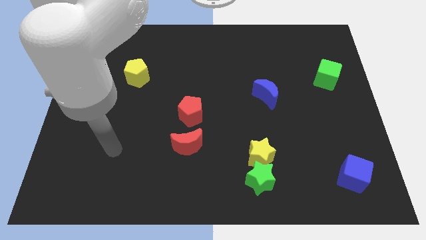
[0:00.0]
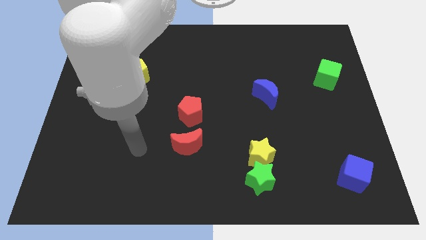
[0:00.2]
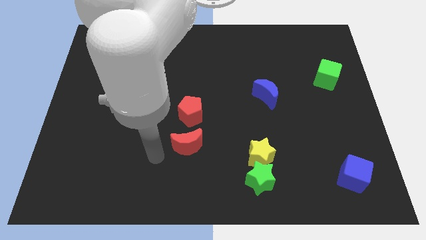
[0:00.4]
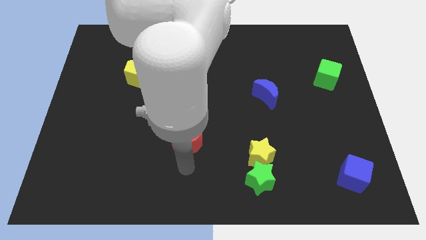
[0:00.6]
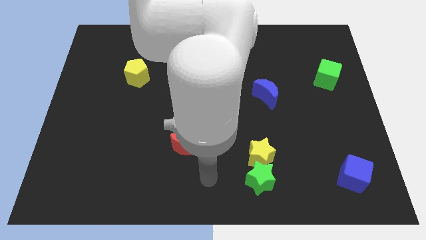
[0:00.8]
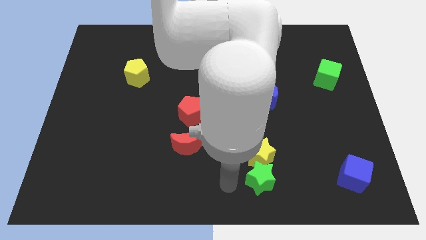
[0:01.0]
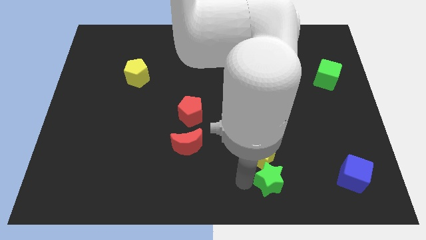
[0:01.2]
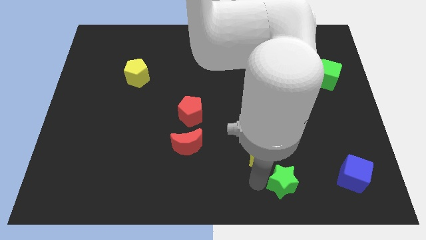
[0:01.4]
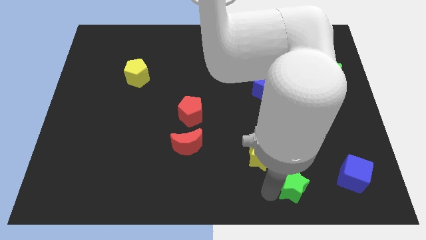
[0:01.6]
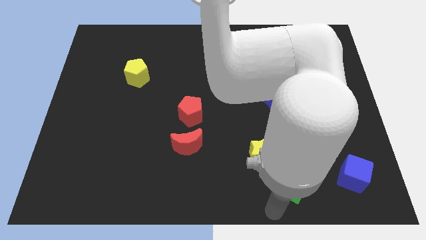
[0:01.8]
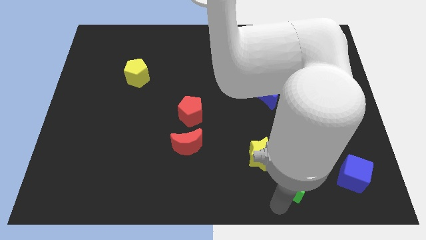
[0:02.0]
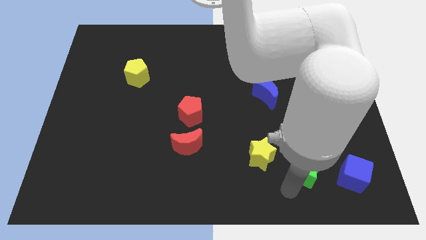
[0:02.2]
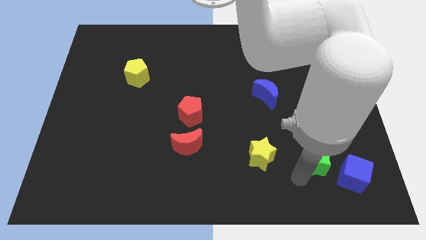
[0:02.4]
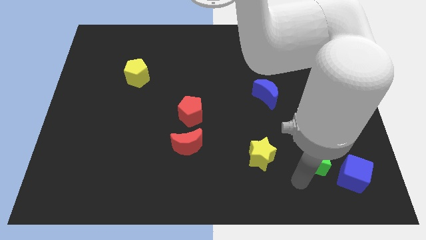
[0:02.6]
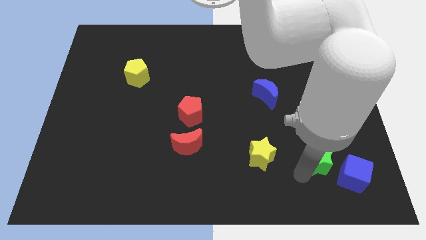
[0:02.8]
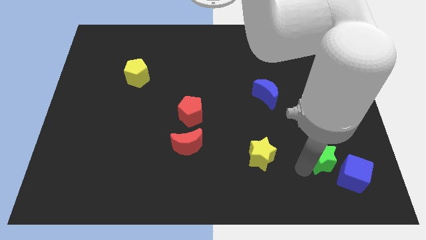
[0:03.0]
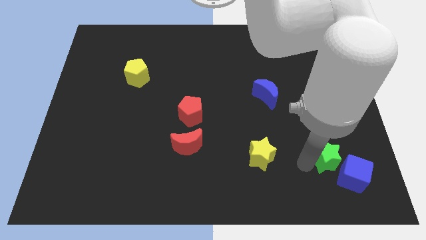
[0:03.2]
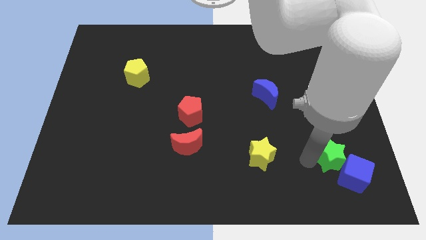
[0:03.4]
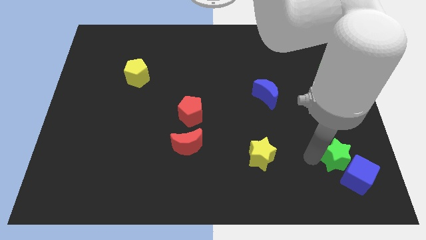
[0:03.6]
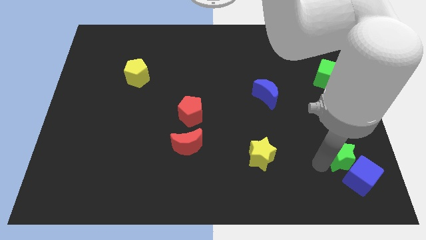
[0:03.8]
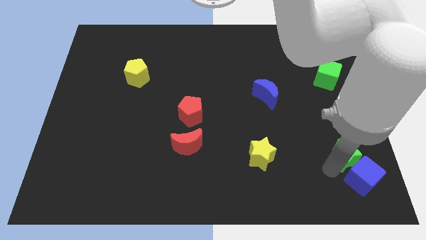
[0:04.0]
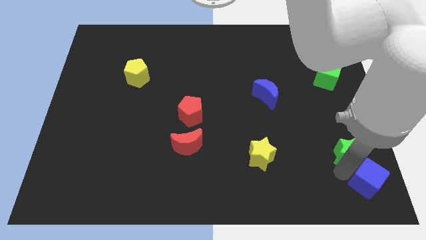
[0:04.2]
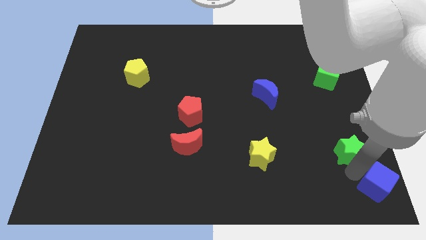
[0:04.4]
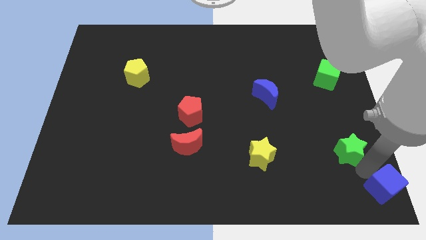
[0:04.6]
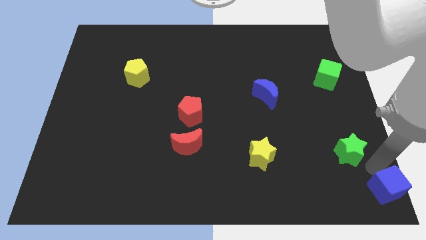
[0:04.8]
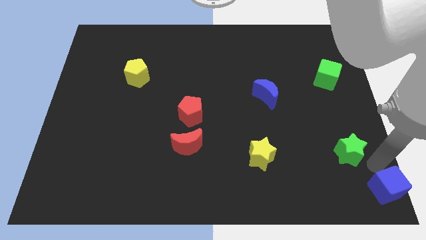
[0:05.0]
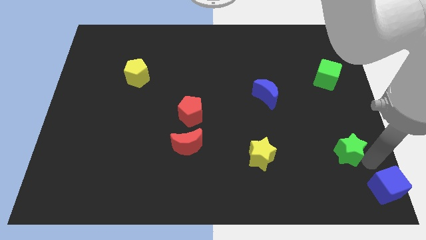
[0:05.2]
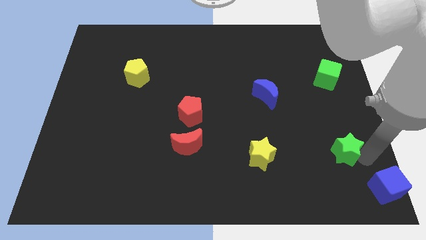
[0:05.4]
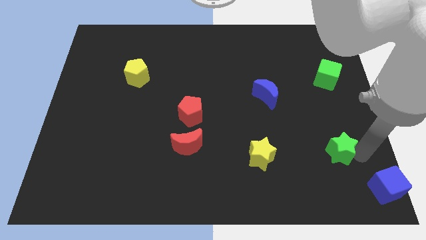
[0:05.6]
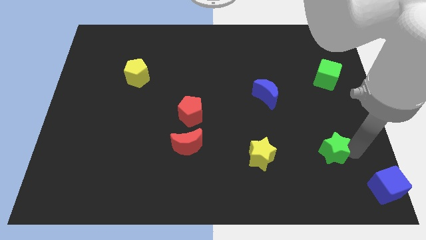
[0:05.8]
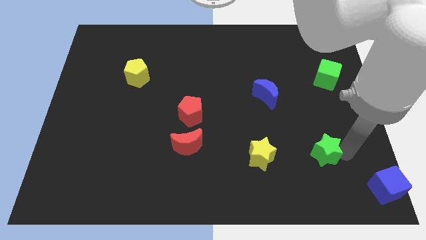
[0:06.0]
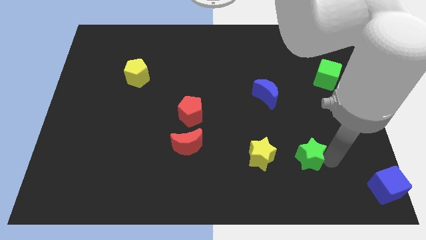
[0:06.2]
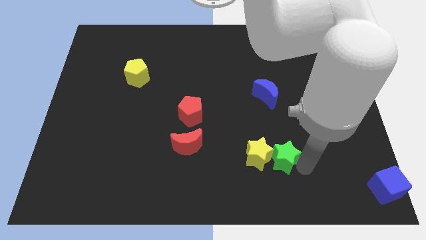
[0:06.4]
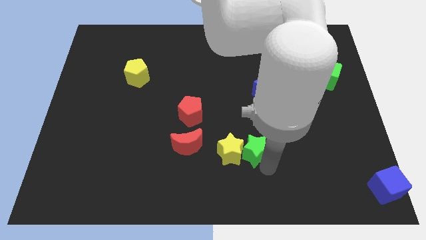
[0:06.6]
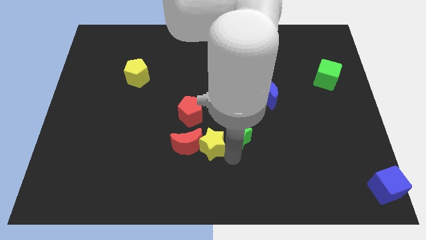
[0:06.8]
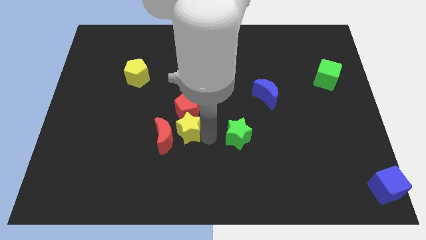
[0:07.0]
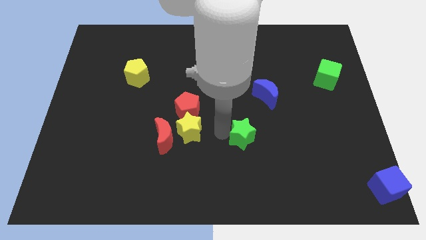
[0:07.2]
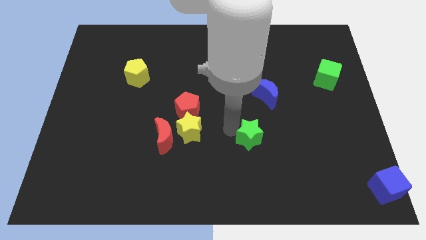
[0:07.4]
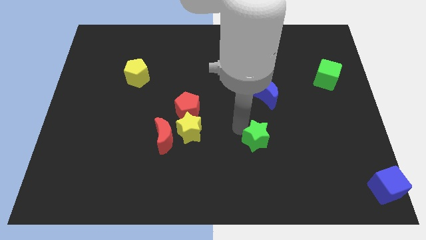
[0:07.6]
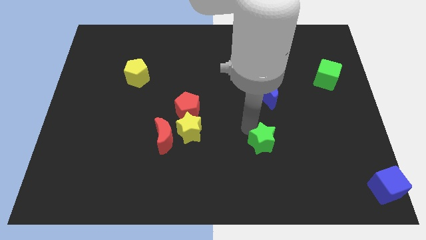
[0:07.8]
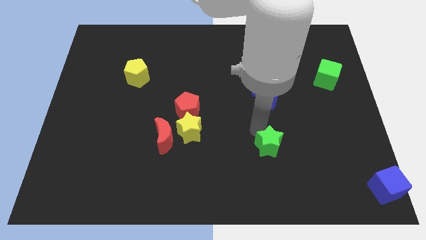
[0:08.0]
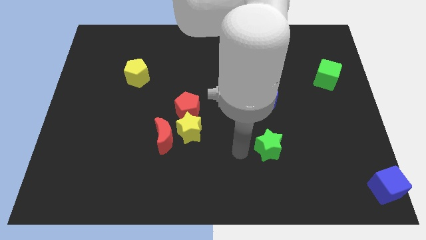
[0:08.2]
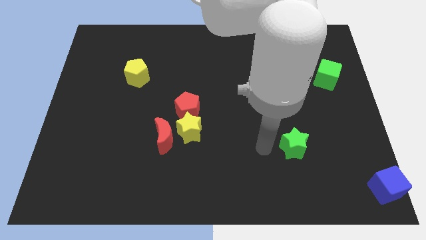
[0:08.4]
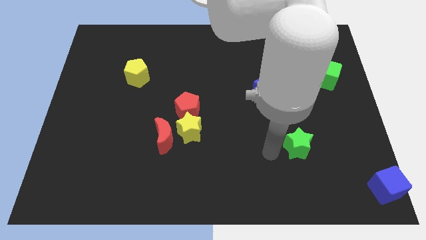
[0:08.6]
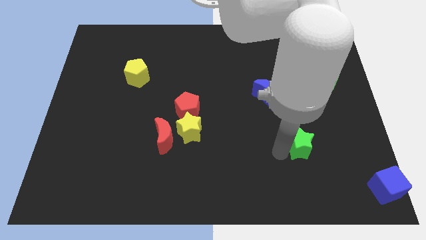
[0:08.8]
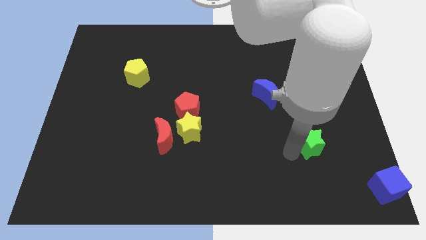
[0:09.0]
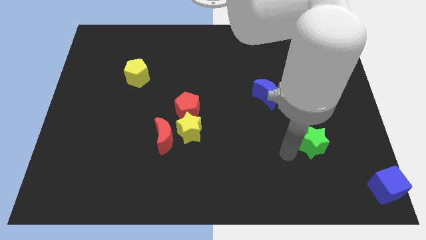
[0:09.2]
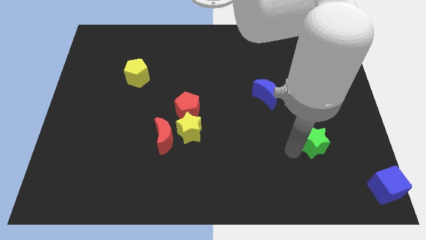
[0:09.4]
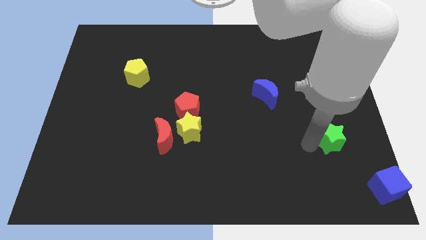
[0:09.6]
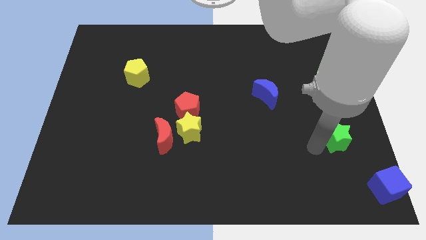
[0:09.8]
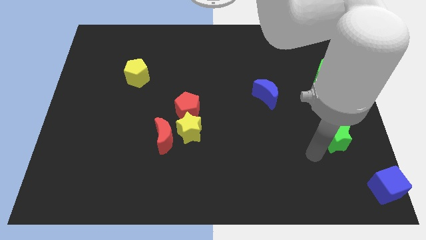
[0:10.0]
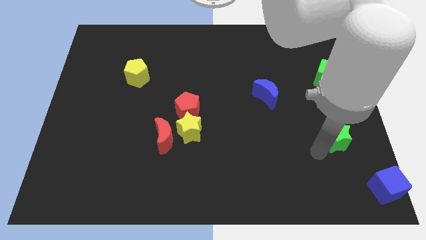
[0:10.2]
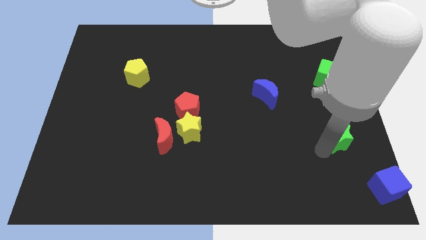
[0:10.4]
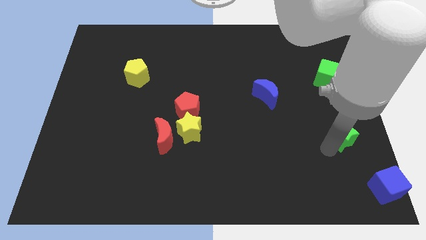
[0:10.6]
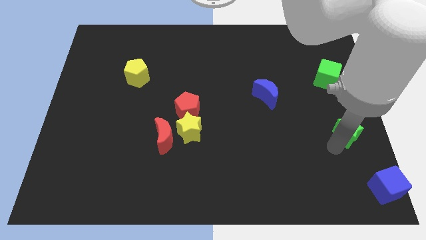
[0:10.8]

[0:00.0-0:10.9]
push the green star to the right side

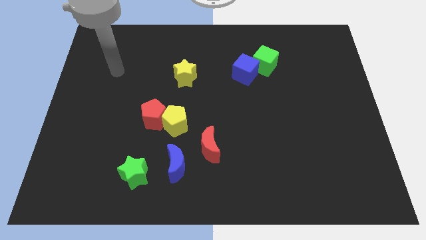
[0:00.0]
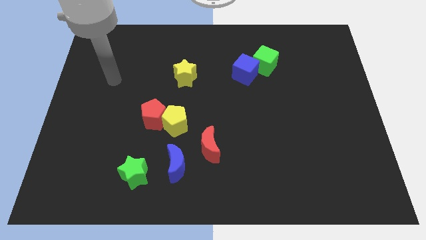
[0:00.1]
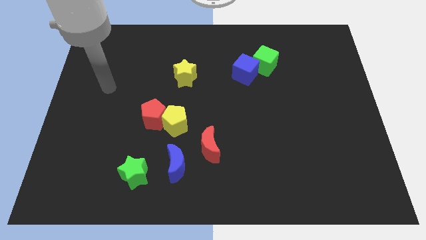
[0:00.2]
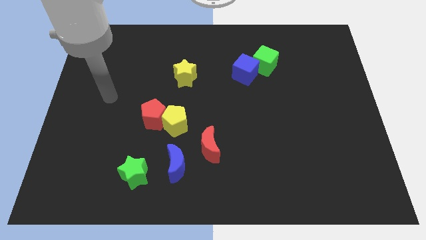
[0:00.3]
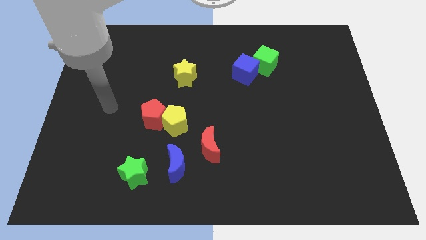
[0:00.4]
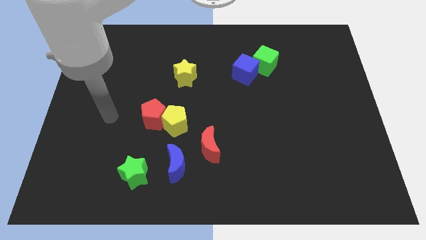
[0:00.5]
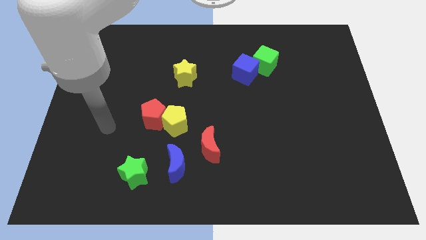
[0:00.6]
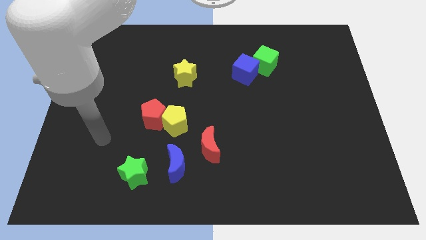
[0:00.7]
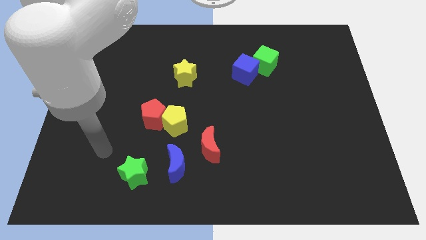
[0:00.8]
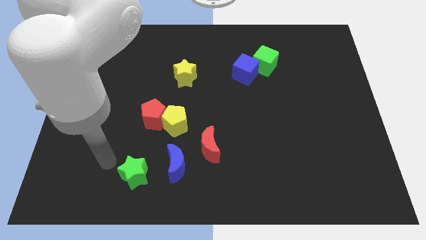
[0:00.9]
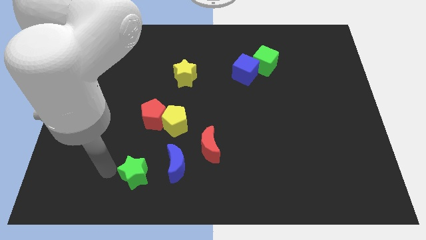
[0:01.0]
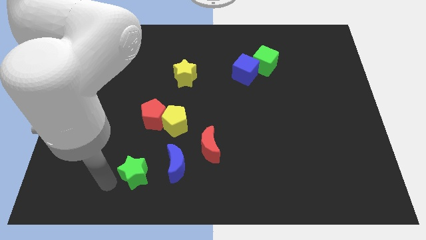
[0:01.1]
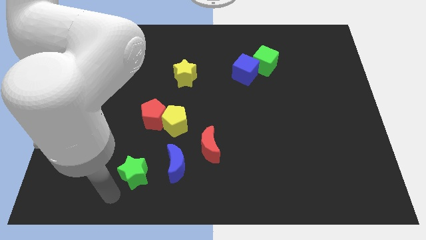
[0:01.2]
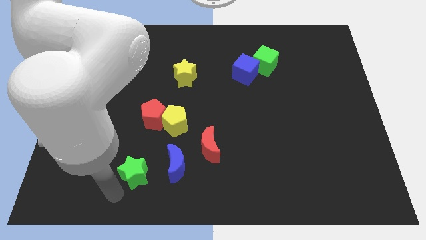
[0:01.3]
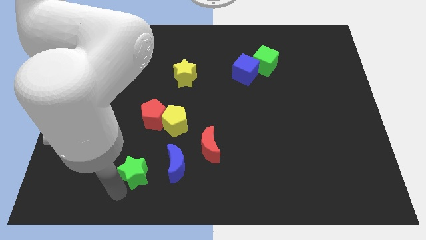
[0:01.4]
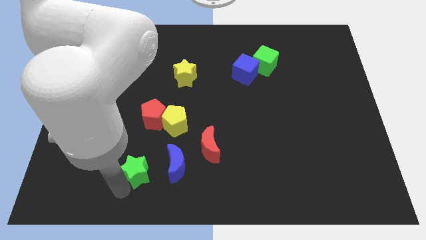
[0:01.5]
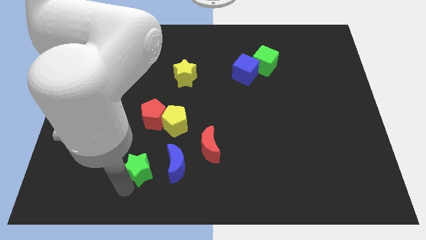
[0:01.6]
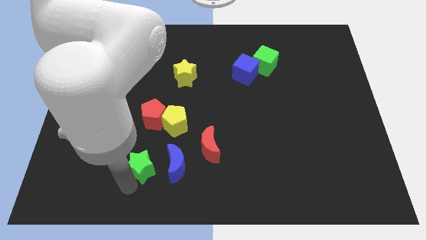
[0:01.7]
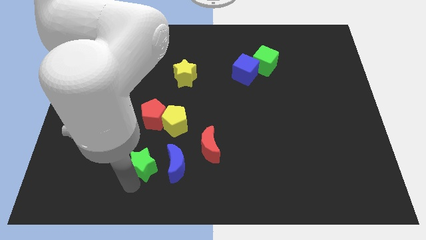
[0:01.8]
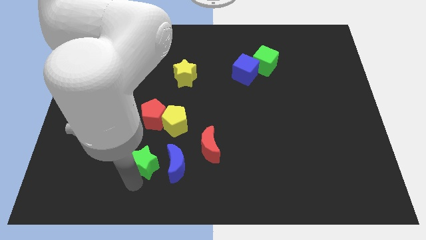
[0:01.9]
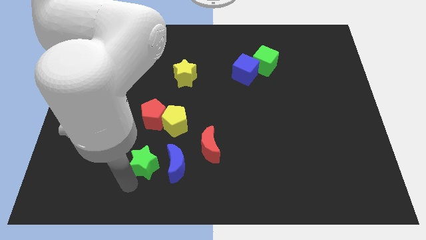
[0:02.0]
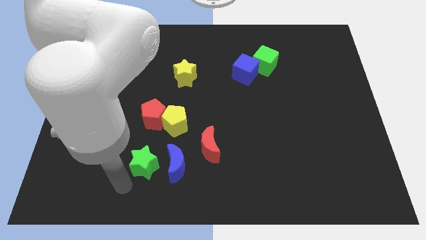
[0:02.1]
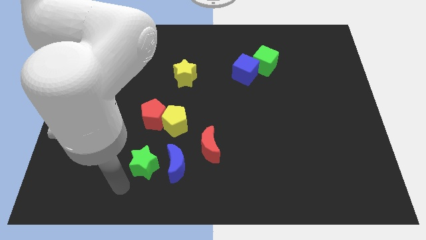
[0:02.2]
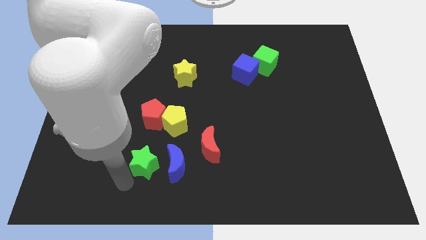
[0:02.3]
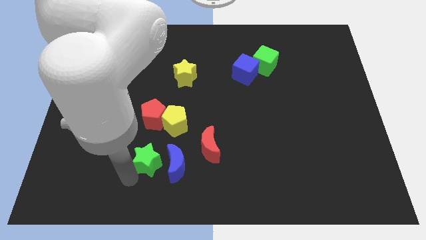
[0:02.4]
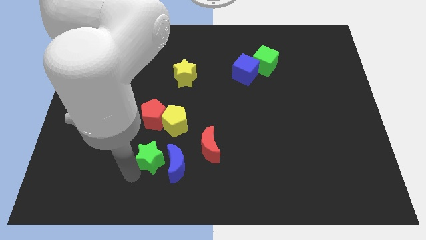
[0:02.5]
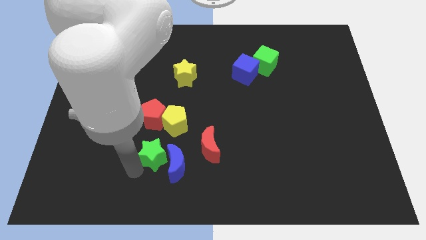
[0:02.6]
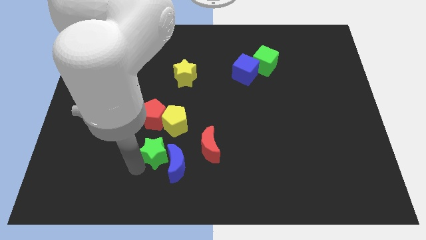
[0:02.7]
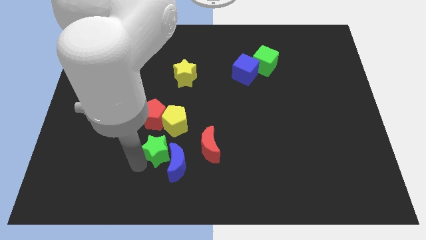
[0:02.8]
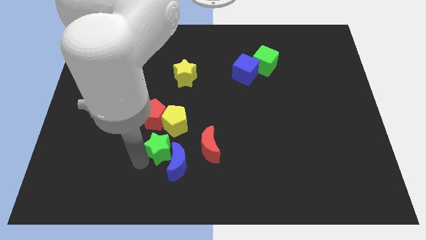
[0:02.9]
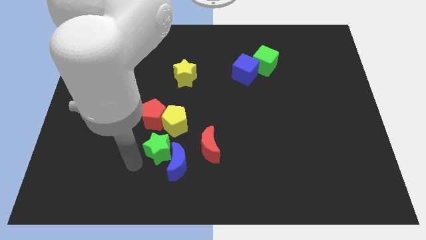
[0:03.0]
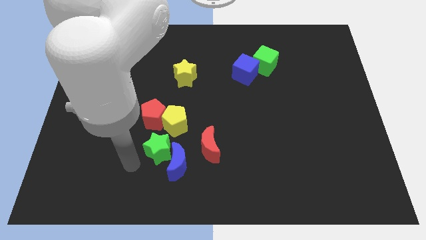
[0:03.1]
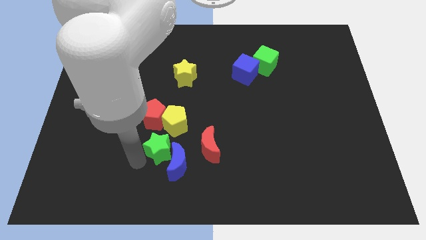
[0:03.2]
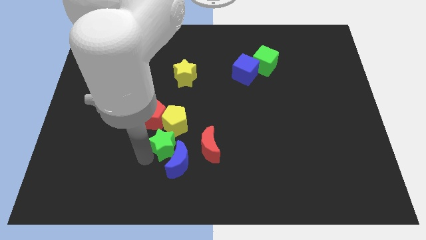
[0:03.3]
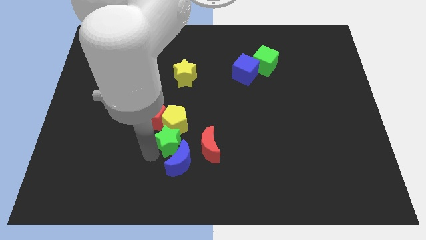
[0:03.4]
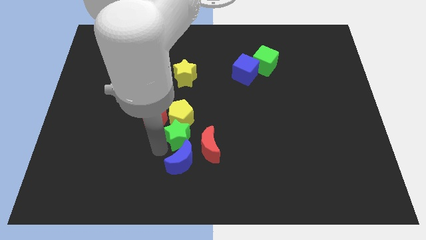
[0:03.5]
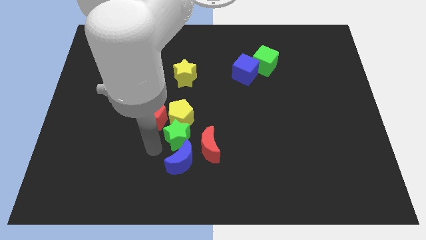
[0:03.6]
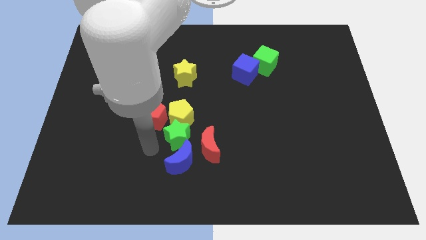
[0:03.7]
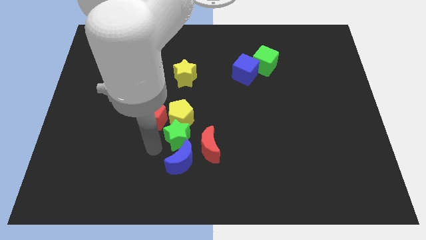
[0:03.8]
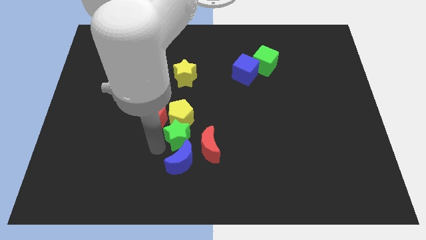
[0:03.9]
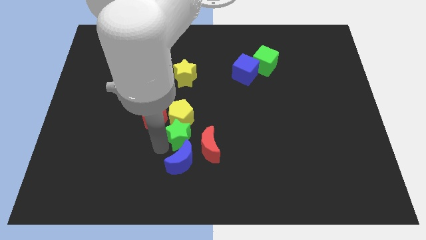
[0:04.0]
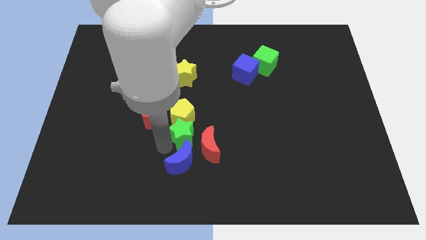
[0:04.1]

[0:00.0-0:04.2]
slide the green star to the middle of the board
